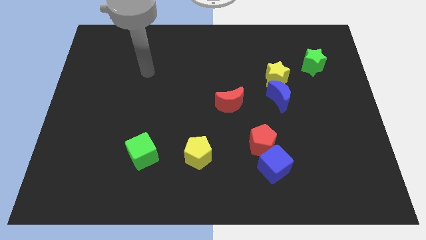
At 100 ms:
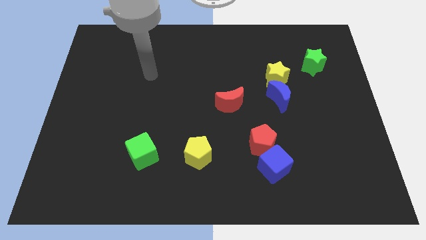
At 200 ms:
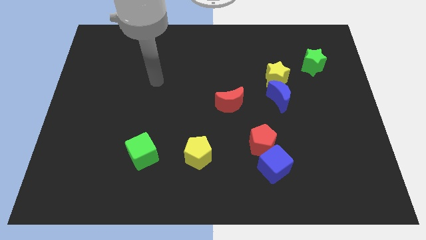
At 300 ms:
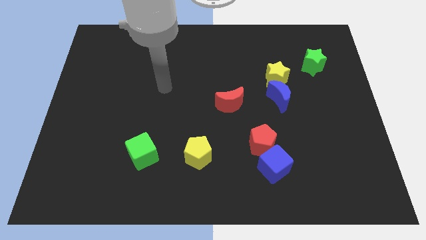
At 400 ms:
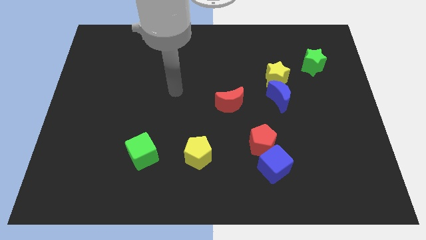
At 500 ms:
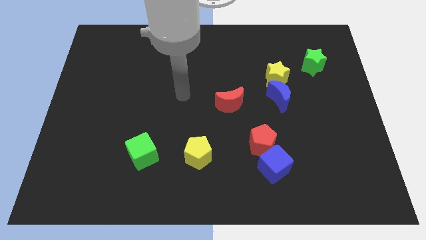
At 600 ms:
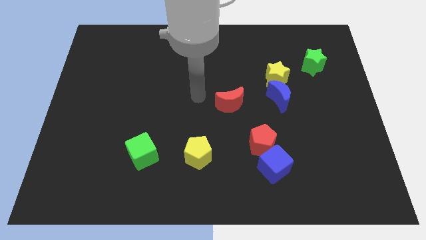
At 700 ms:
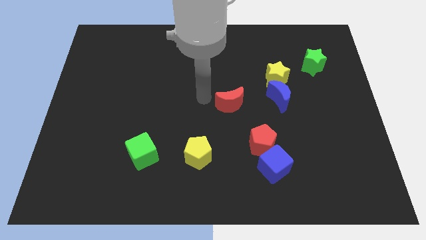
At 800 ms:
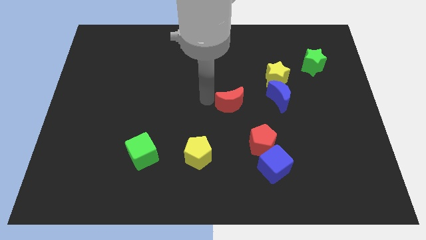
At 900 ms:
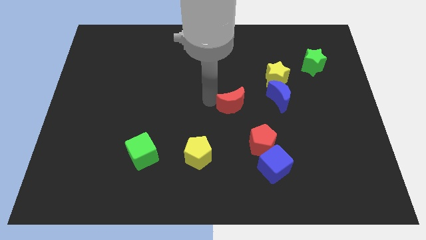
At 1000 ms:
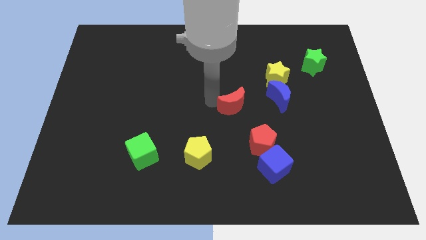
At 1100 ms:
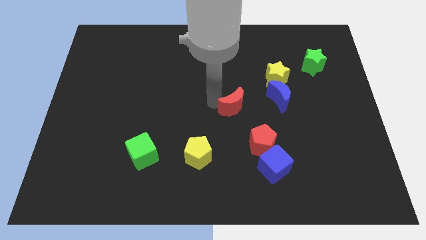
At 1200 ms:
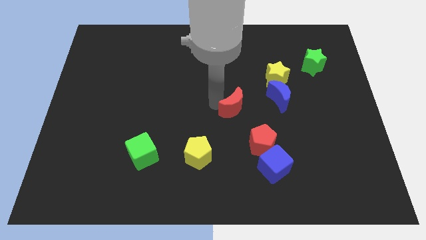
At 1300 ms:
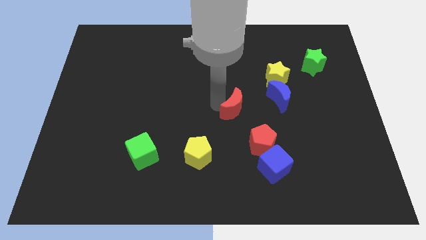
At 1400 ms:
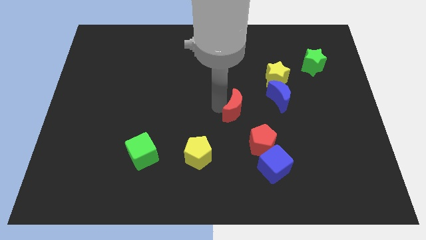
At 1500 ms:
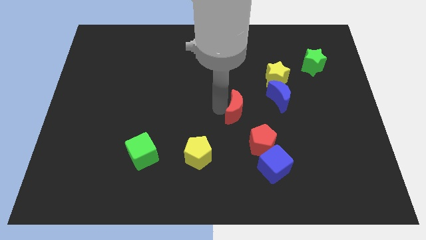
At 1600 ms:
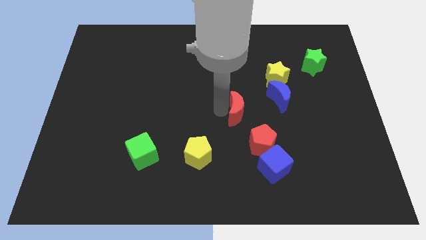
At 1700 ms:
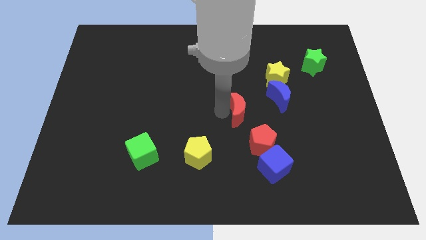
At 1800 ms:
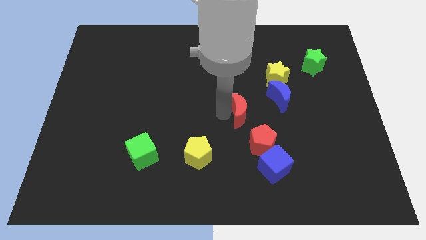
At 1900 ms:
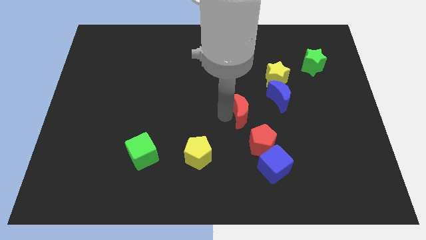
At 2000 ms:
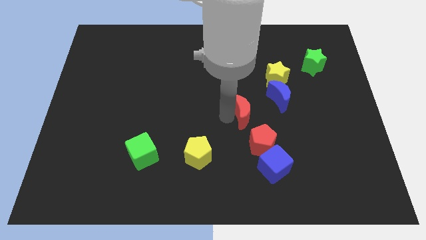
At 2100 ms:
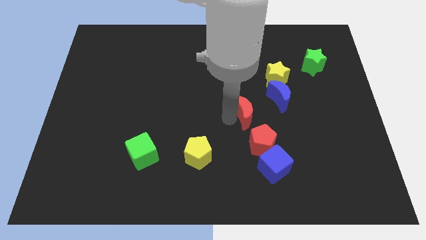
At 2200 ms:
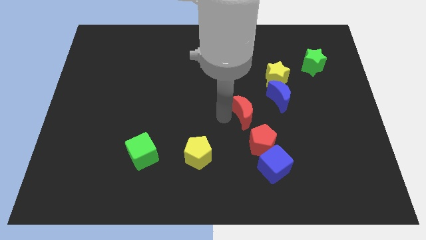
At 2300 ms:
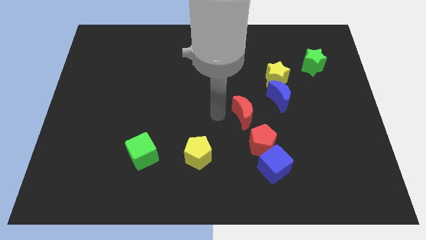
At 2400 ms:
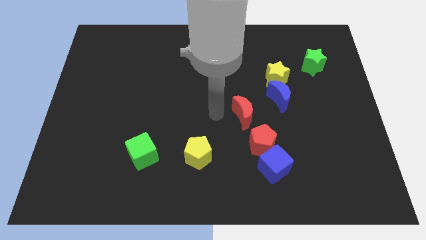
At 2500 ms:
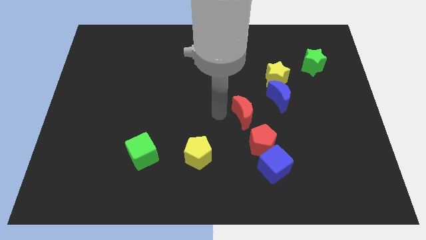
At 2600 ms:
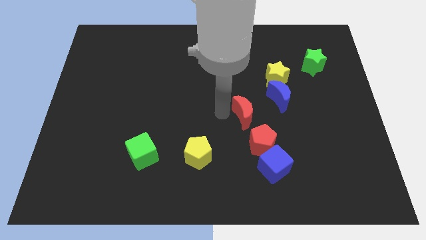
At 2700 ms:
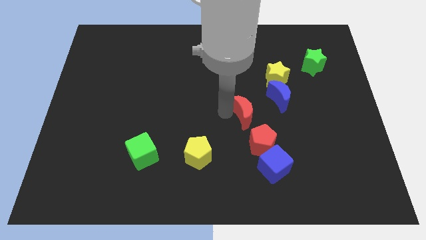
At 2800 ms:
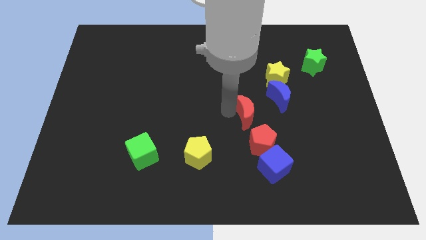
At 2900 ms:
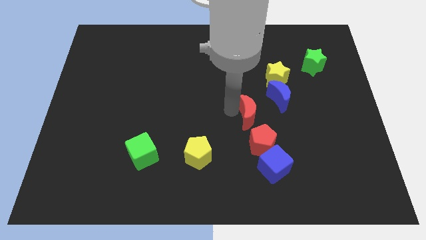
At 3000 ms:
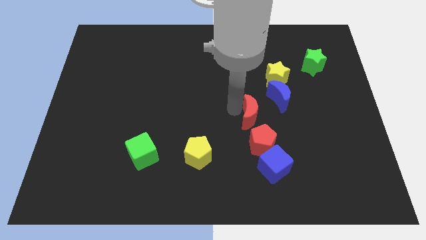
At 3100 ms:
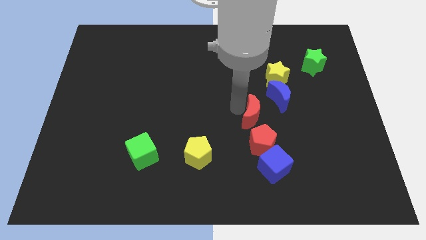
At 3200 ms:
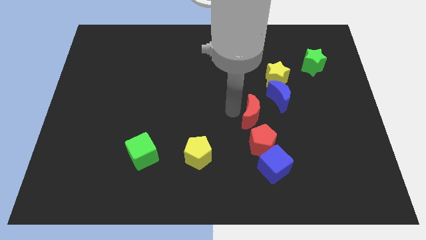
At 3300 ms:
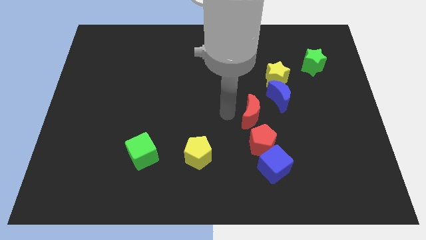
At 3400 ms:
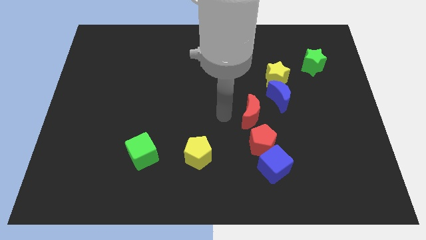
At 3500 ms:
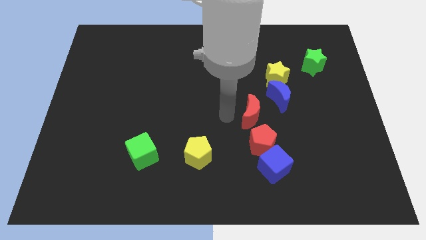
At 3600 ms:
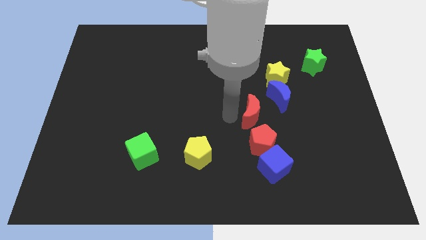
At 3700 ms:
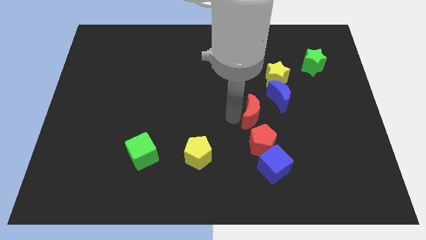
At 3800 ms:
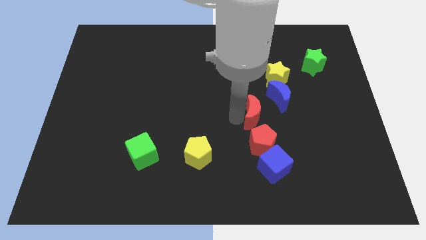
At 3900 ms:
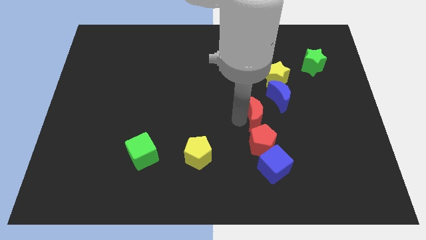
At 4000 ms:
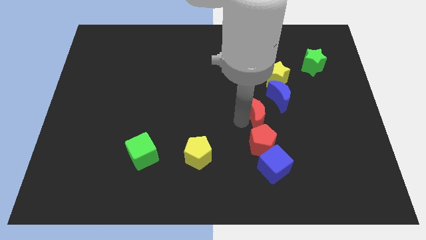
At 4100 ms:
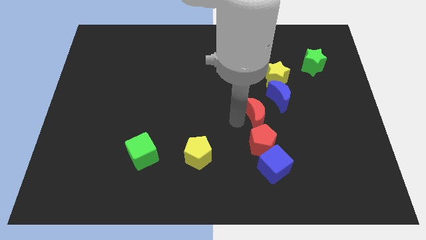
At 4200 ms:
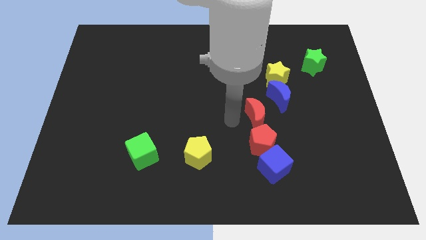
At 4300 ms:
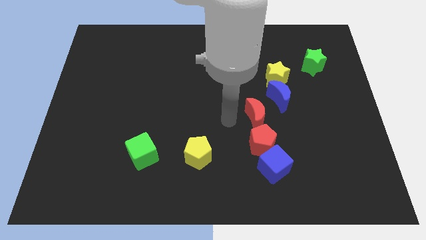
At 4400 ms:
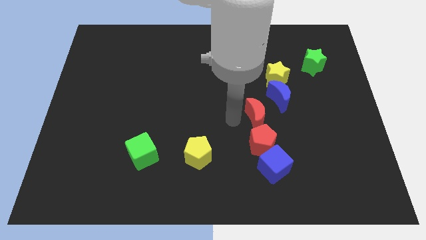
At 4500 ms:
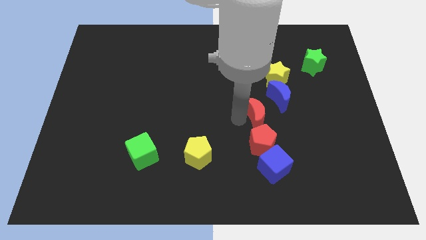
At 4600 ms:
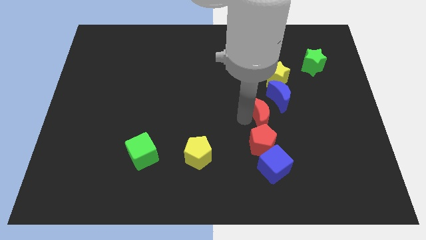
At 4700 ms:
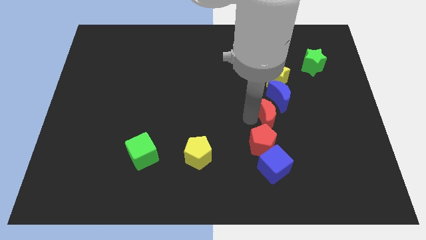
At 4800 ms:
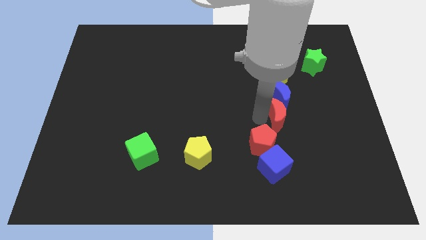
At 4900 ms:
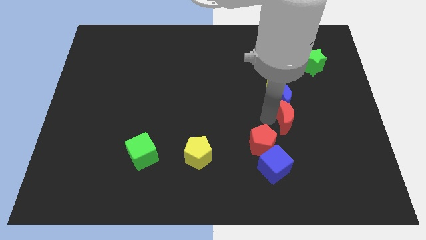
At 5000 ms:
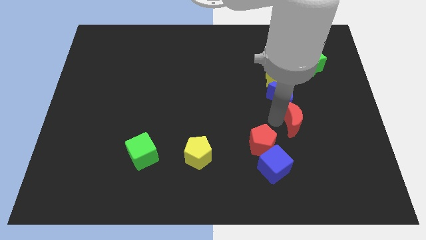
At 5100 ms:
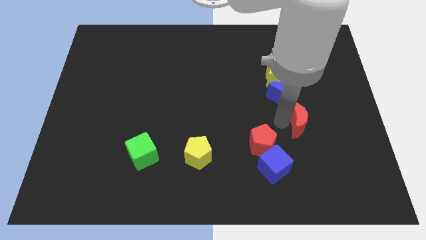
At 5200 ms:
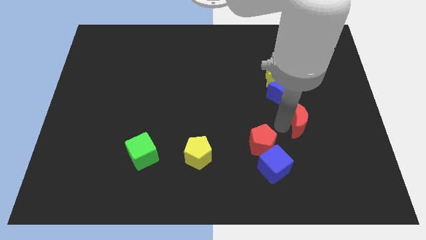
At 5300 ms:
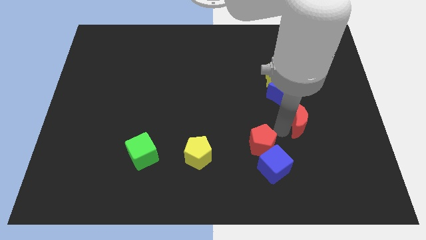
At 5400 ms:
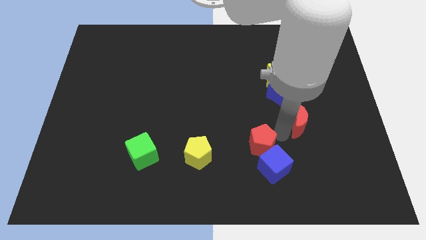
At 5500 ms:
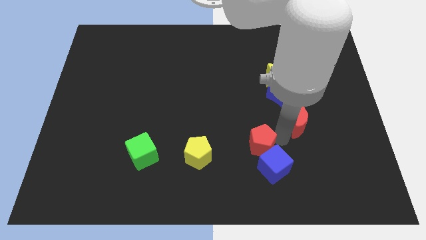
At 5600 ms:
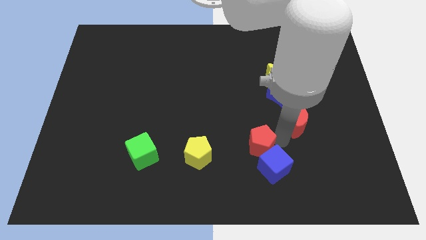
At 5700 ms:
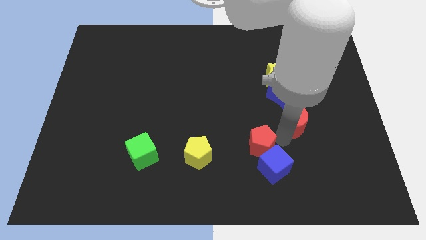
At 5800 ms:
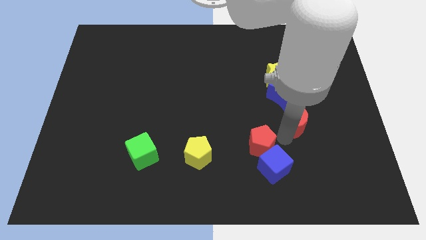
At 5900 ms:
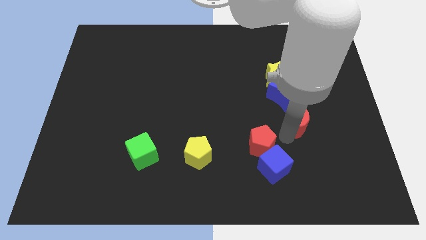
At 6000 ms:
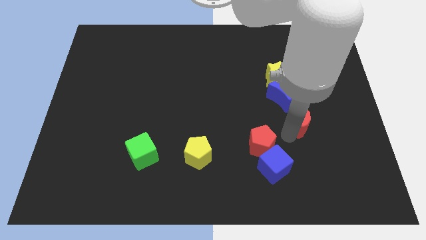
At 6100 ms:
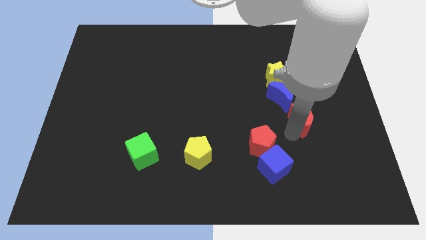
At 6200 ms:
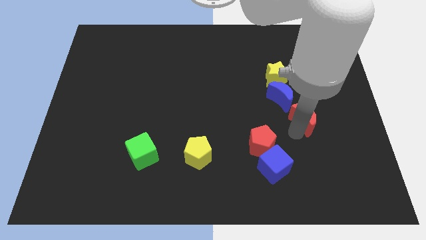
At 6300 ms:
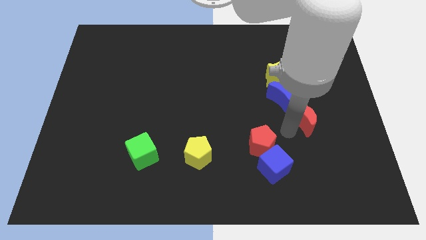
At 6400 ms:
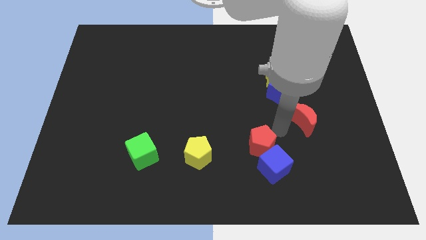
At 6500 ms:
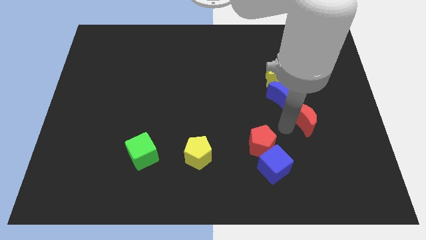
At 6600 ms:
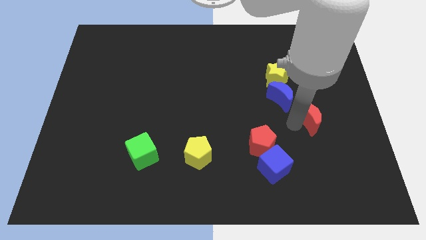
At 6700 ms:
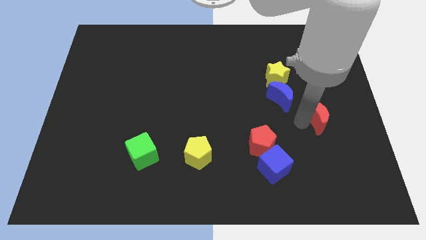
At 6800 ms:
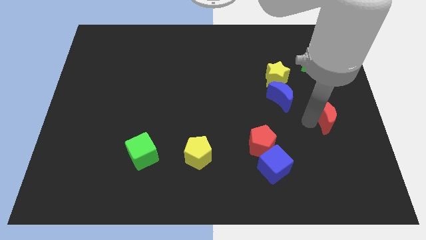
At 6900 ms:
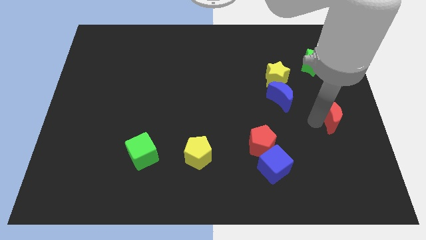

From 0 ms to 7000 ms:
slide the red moon to the right side
